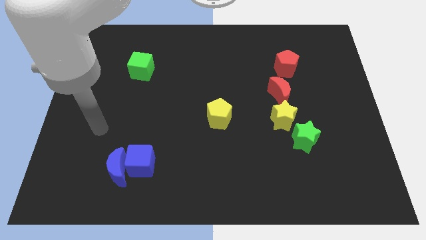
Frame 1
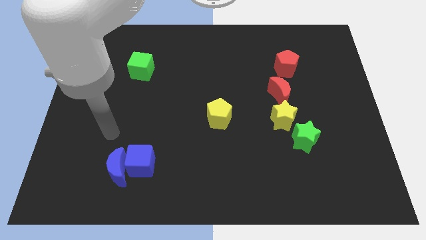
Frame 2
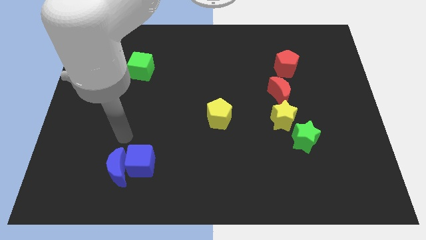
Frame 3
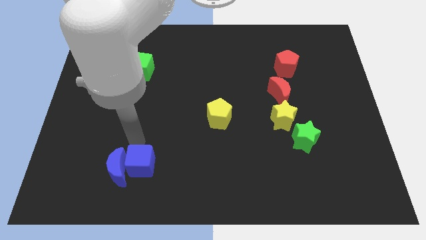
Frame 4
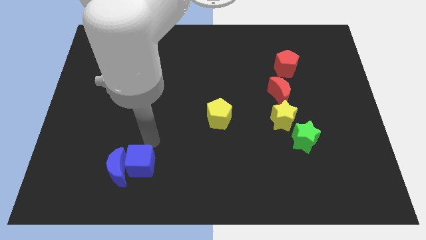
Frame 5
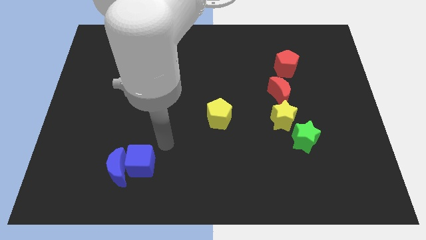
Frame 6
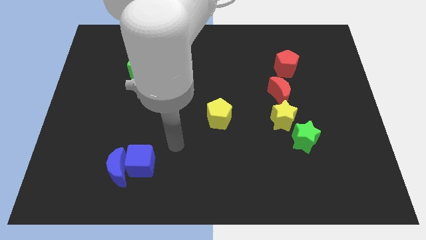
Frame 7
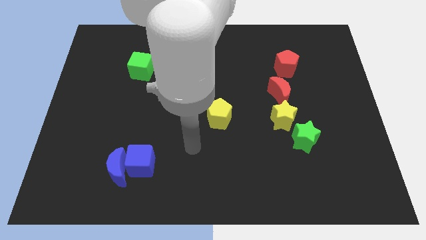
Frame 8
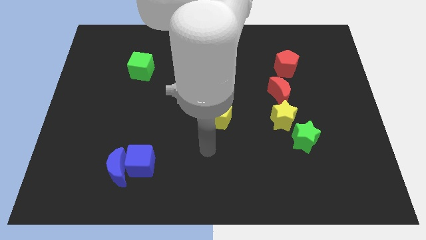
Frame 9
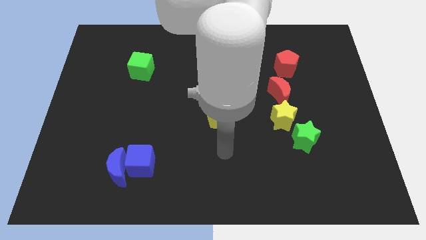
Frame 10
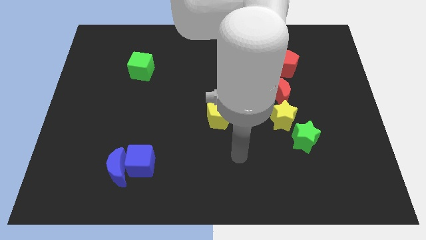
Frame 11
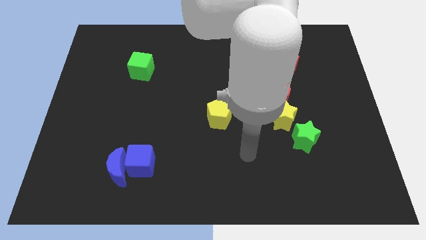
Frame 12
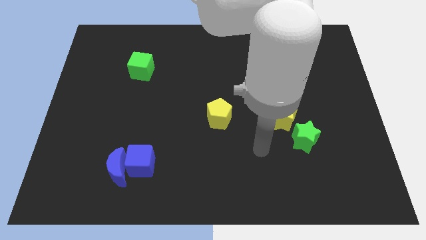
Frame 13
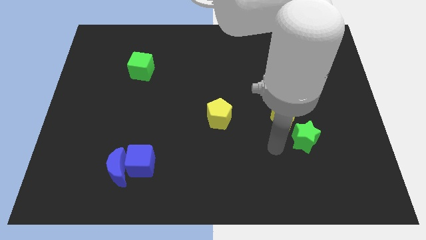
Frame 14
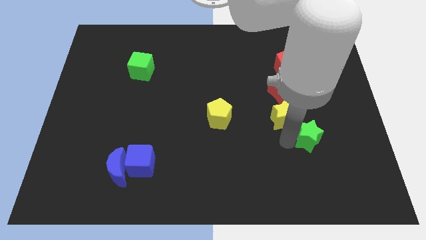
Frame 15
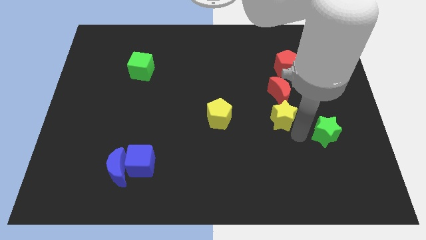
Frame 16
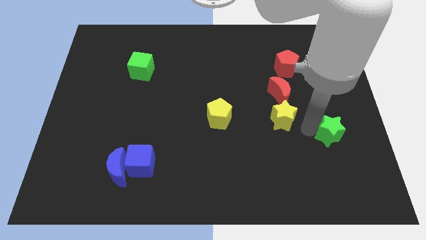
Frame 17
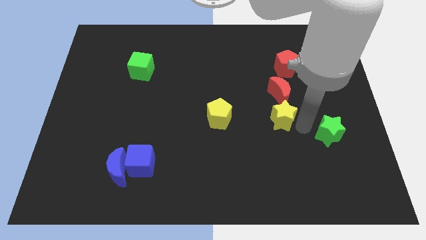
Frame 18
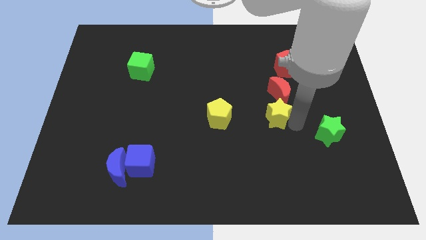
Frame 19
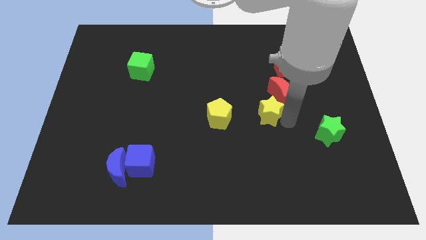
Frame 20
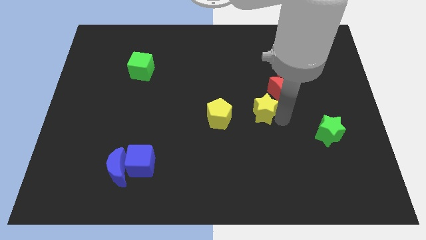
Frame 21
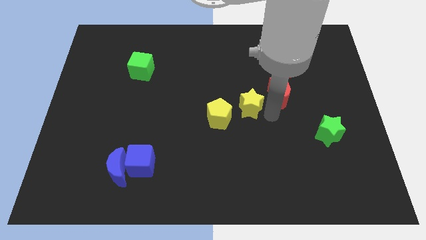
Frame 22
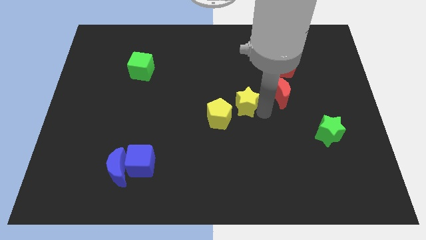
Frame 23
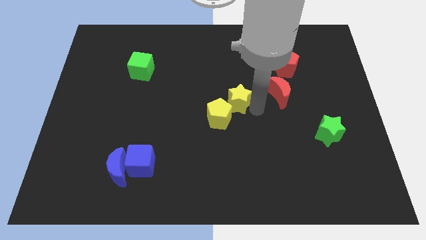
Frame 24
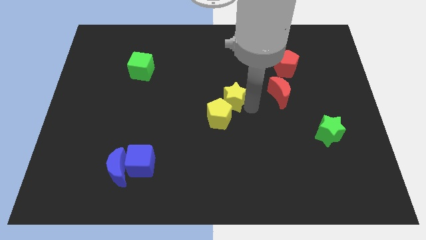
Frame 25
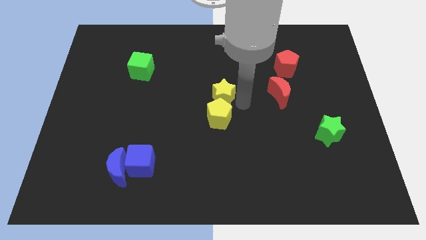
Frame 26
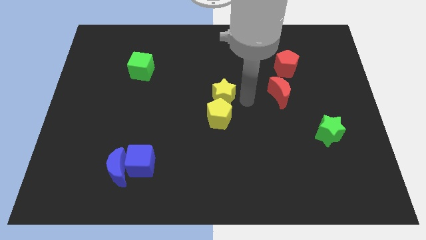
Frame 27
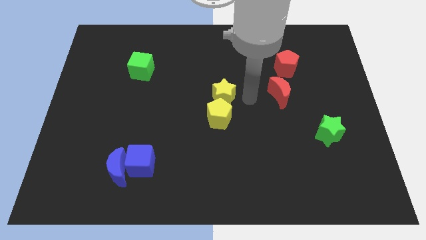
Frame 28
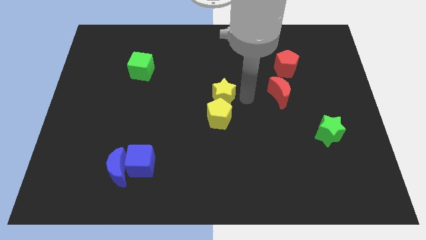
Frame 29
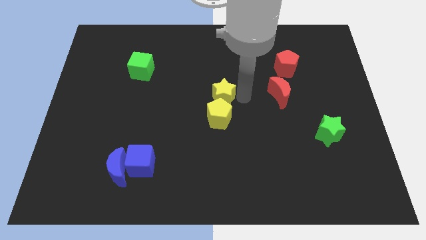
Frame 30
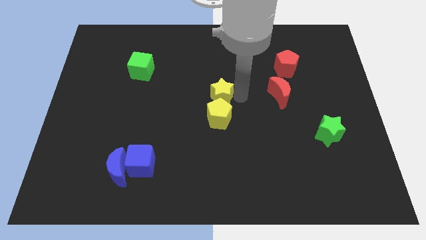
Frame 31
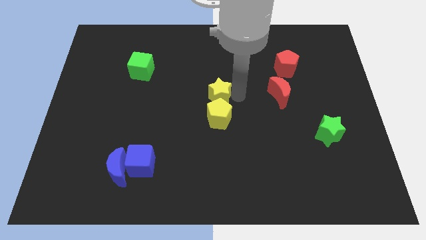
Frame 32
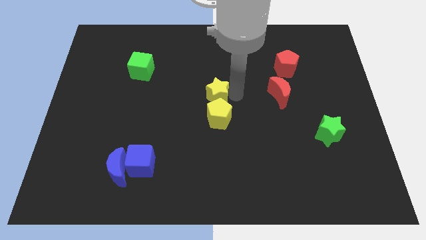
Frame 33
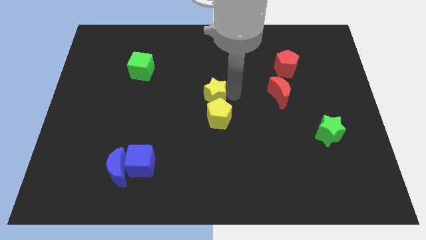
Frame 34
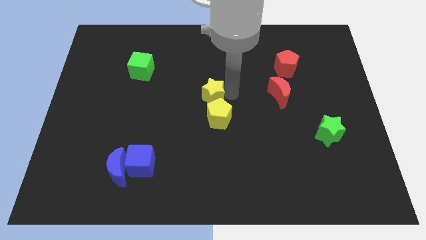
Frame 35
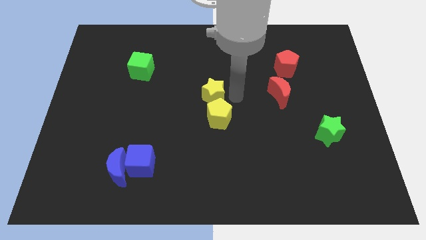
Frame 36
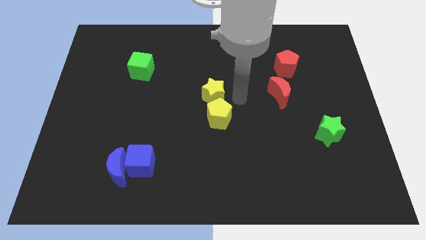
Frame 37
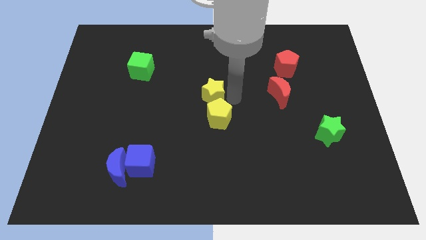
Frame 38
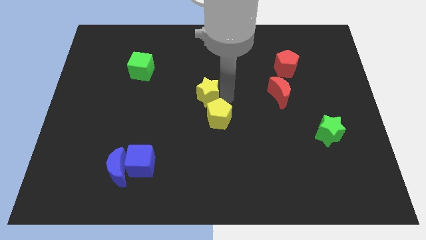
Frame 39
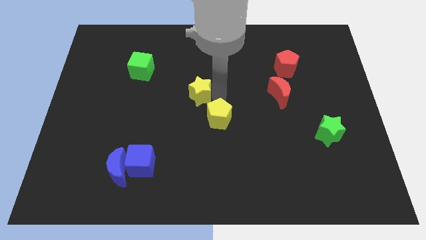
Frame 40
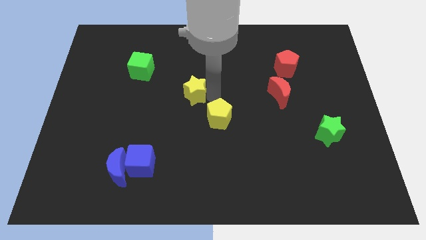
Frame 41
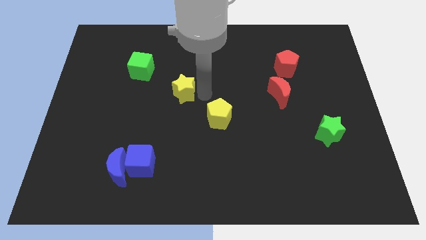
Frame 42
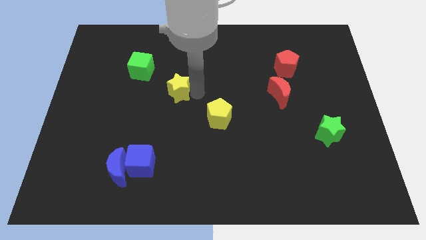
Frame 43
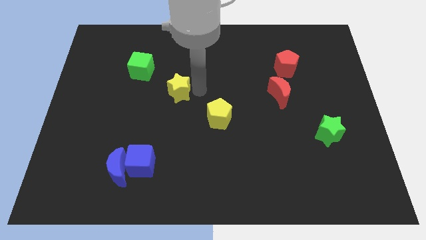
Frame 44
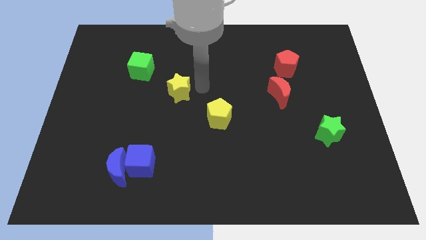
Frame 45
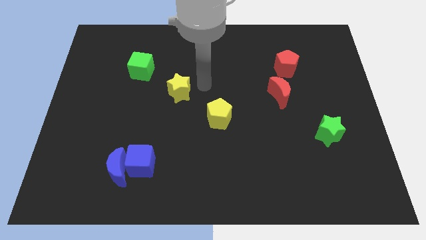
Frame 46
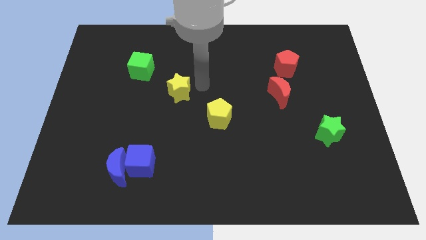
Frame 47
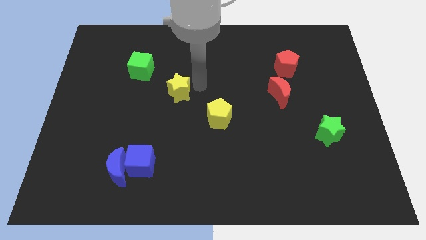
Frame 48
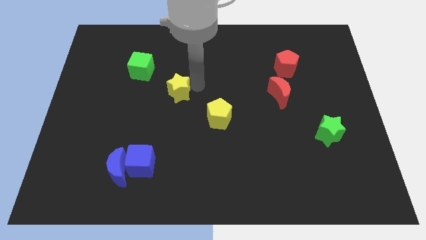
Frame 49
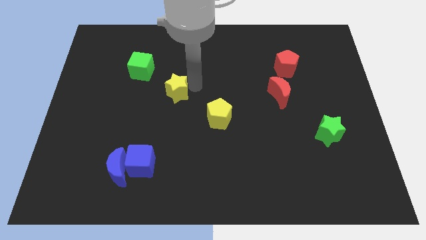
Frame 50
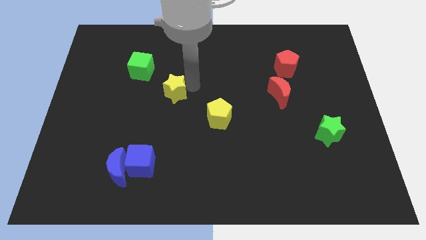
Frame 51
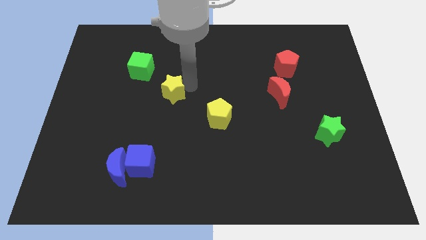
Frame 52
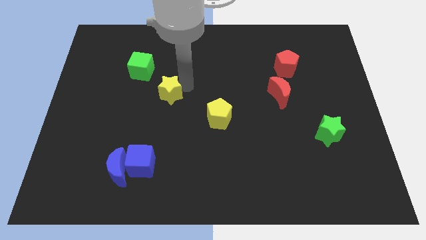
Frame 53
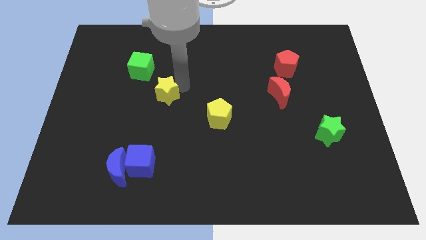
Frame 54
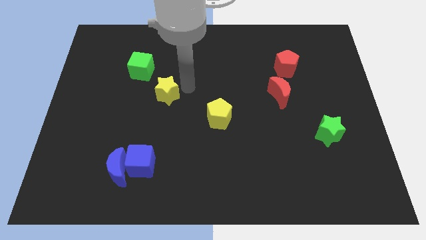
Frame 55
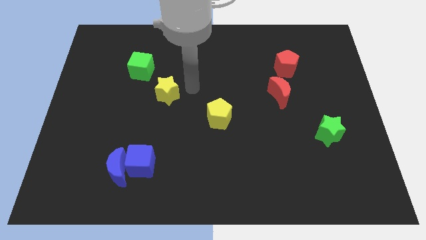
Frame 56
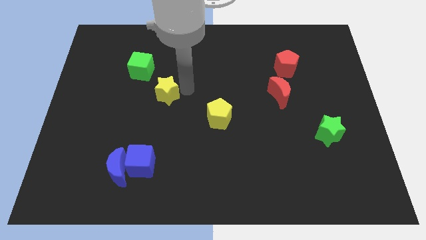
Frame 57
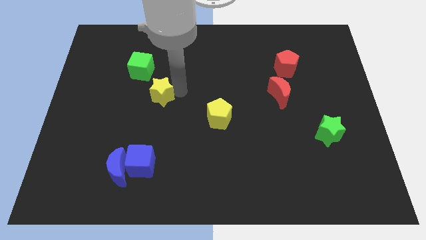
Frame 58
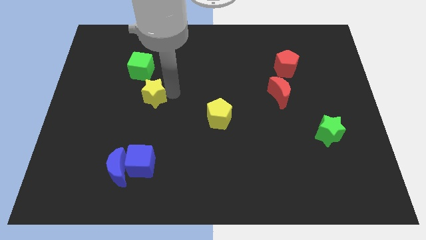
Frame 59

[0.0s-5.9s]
push the yellow star to the bottom of the green cube

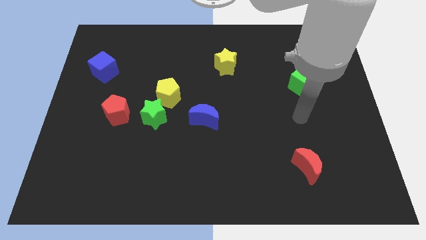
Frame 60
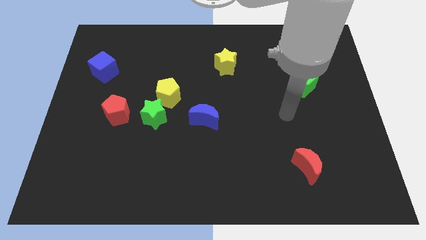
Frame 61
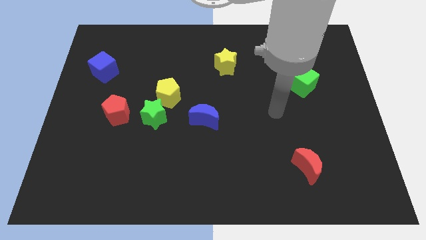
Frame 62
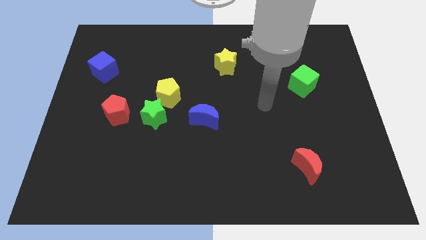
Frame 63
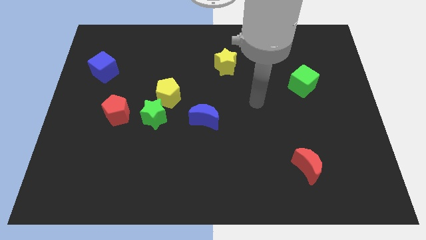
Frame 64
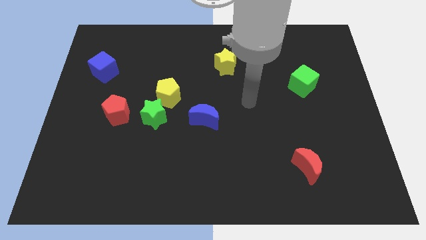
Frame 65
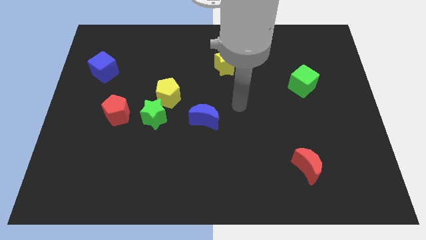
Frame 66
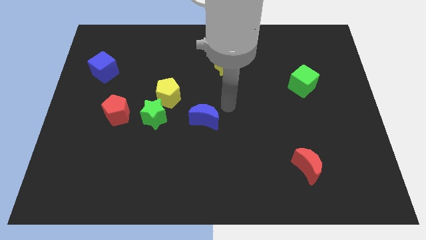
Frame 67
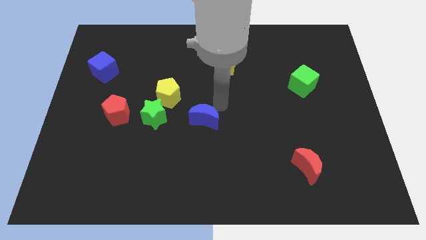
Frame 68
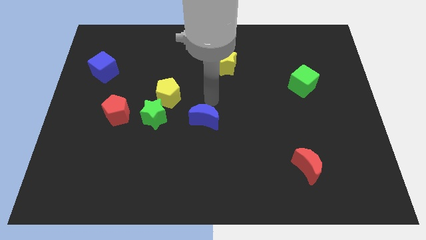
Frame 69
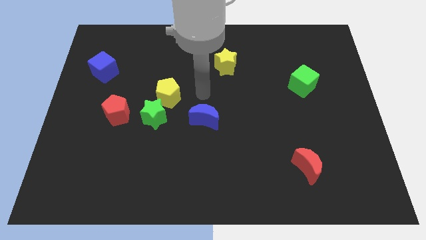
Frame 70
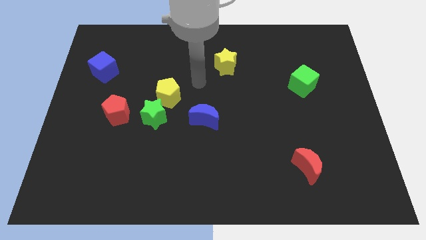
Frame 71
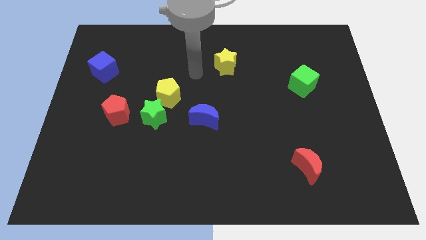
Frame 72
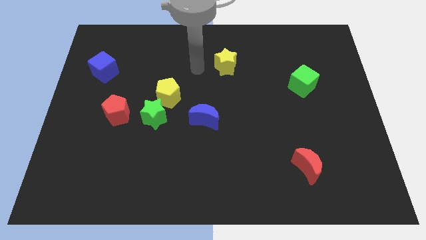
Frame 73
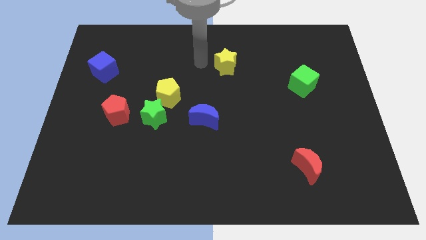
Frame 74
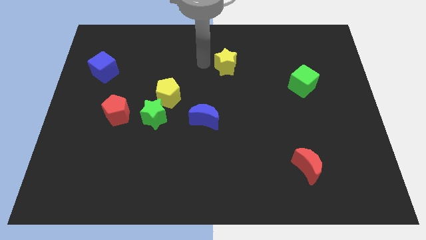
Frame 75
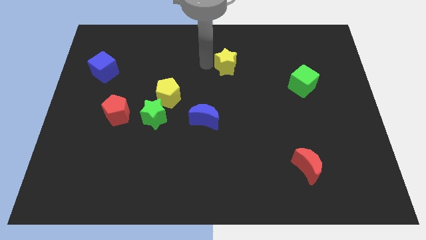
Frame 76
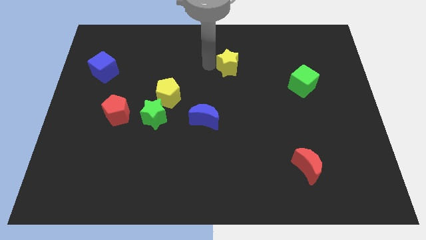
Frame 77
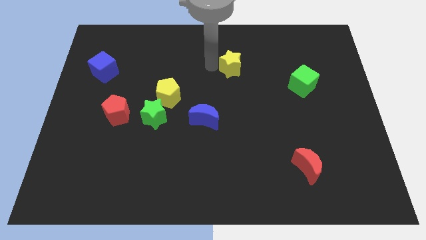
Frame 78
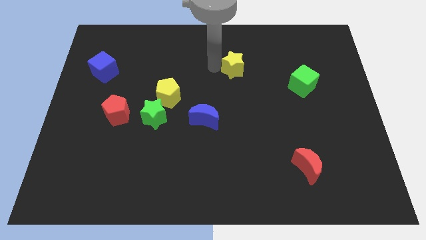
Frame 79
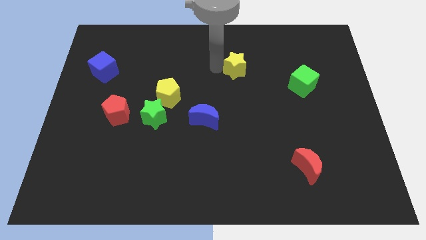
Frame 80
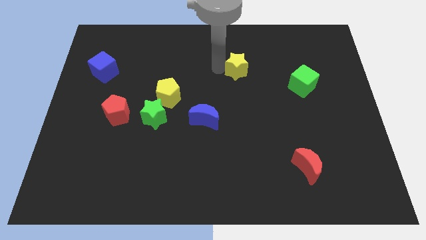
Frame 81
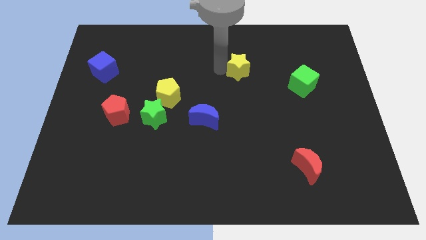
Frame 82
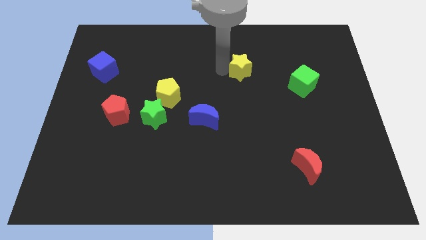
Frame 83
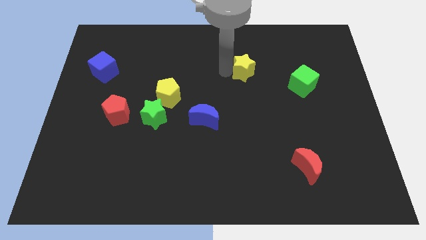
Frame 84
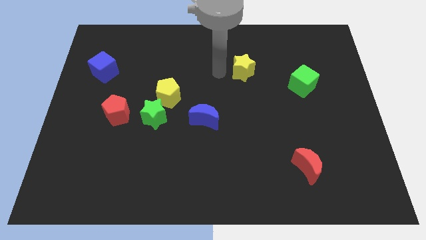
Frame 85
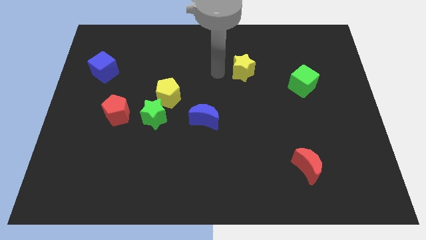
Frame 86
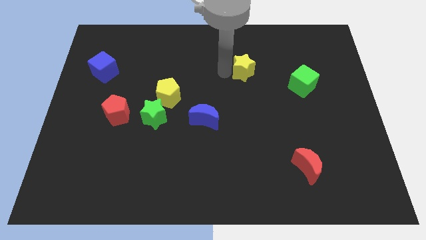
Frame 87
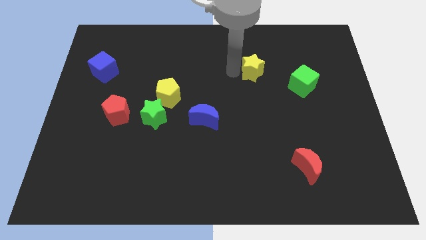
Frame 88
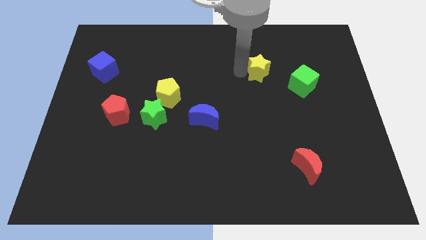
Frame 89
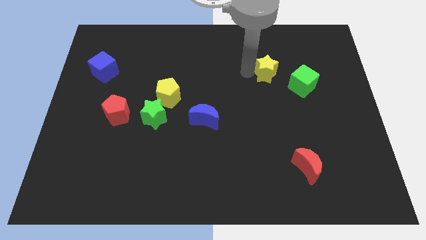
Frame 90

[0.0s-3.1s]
push the yellow star to the top left of the green cube
